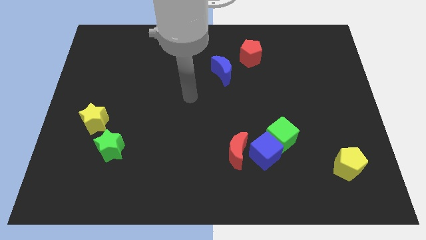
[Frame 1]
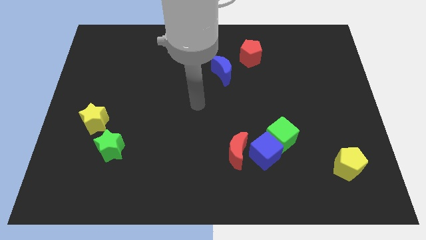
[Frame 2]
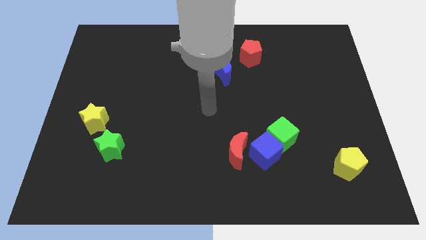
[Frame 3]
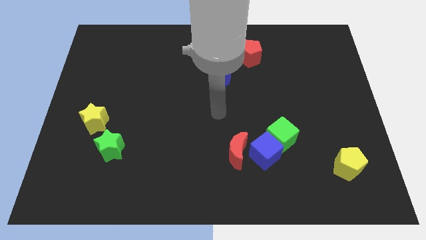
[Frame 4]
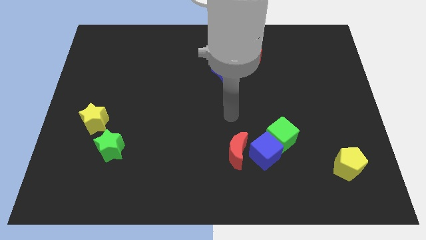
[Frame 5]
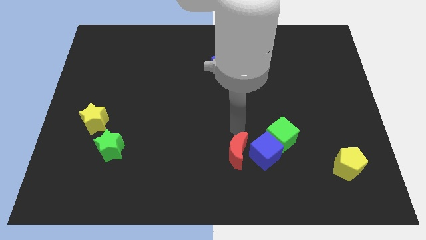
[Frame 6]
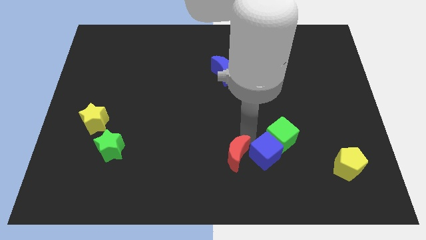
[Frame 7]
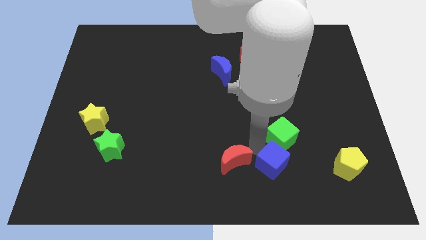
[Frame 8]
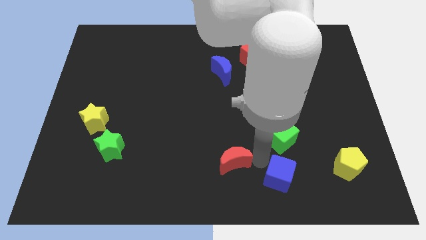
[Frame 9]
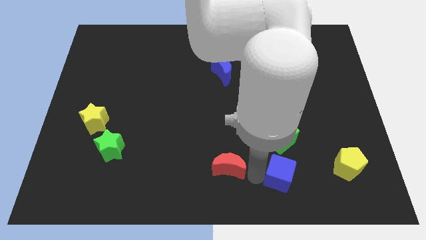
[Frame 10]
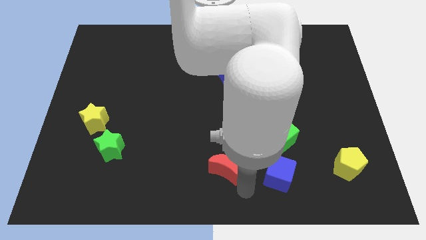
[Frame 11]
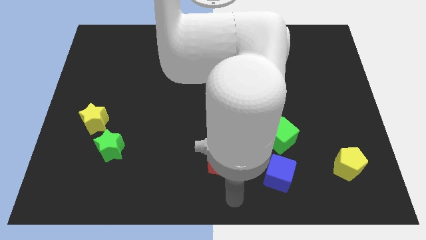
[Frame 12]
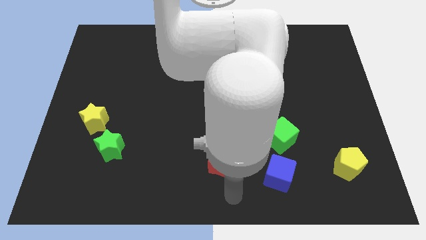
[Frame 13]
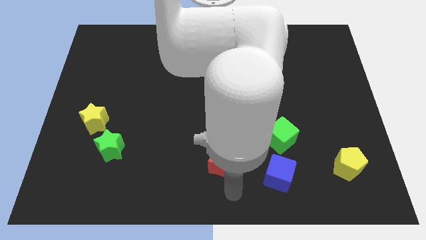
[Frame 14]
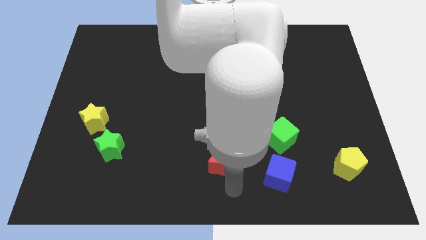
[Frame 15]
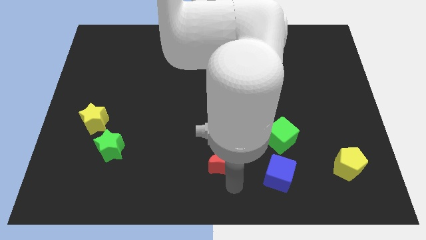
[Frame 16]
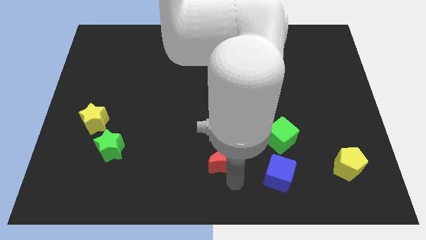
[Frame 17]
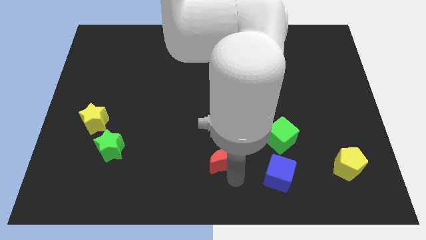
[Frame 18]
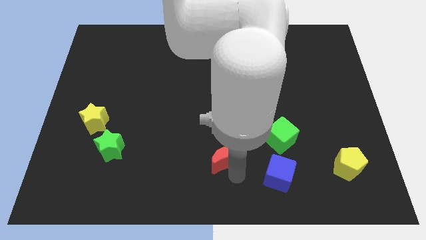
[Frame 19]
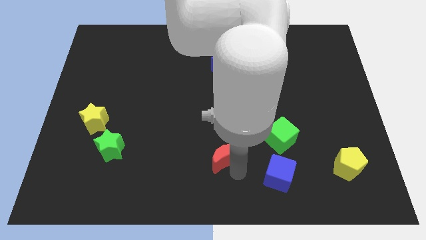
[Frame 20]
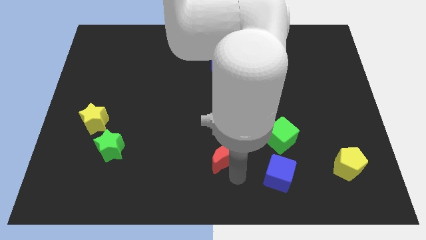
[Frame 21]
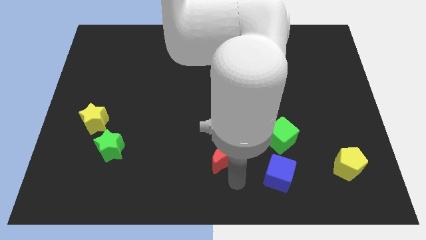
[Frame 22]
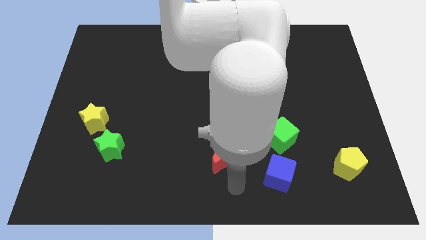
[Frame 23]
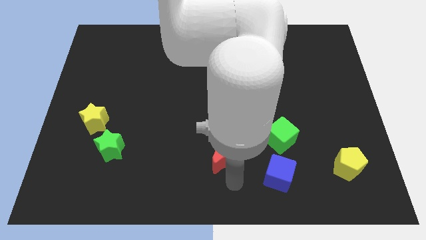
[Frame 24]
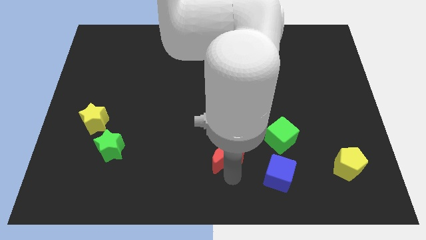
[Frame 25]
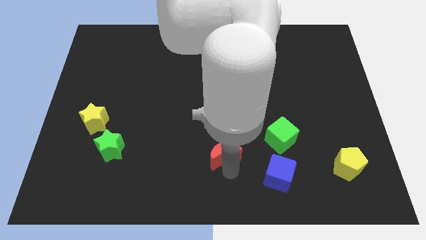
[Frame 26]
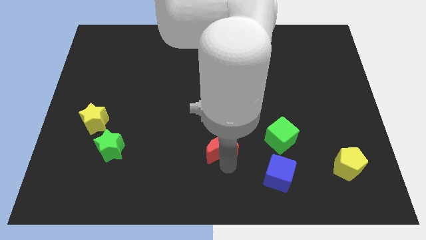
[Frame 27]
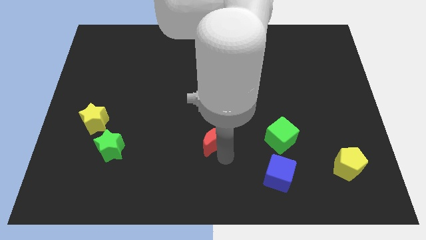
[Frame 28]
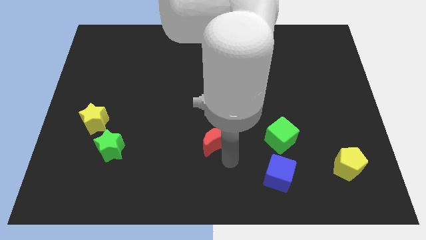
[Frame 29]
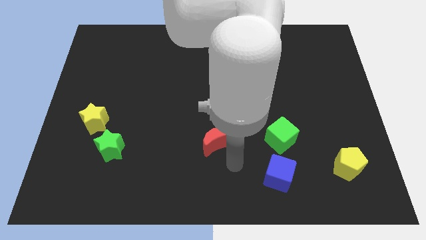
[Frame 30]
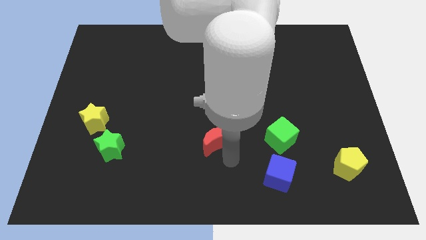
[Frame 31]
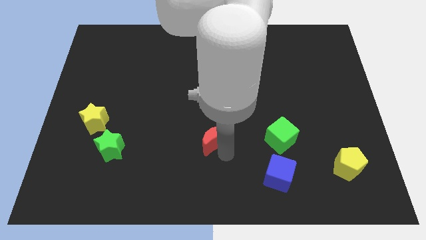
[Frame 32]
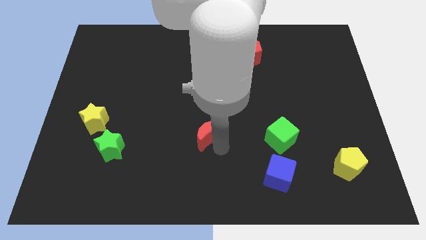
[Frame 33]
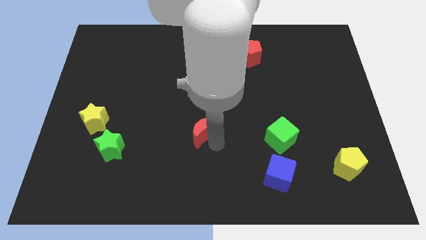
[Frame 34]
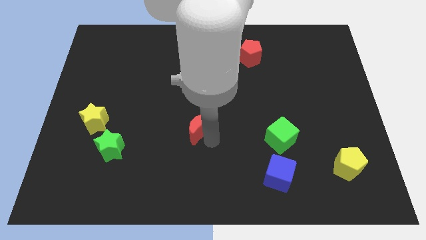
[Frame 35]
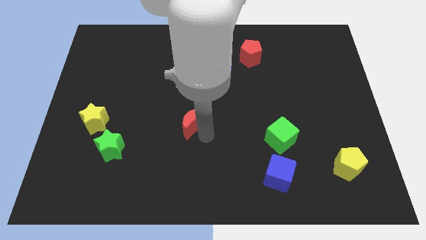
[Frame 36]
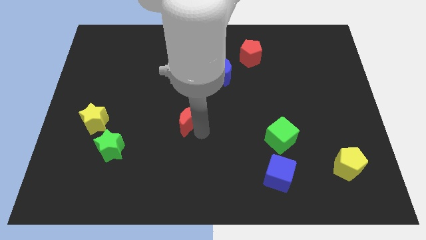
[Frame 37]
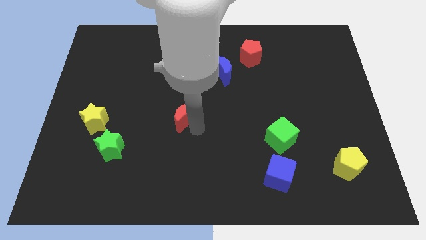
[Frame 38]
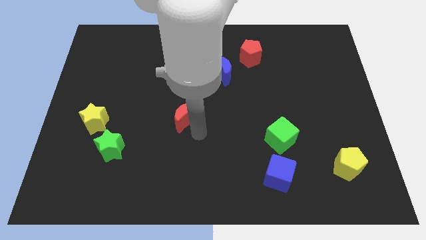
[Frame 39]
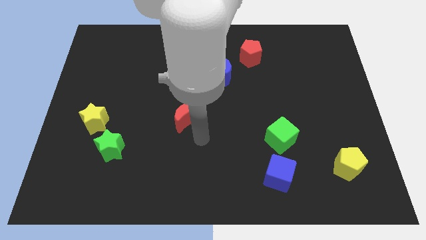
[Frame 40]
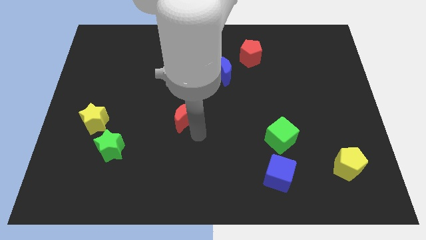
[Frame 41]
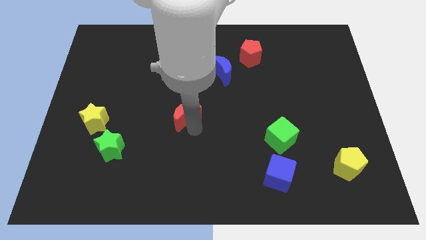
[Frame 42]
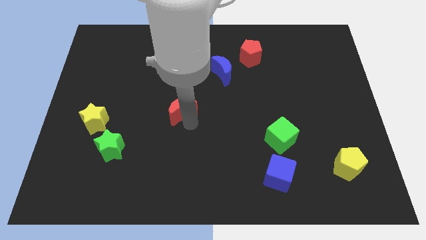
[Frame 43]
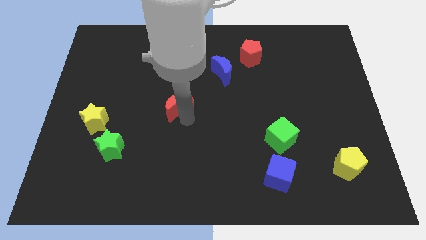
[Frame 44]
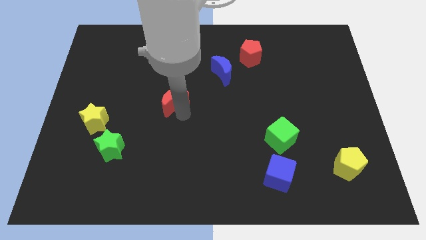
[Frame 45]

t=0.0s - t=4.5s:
push the red moon upwards and then to the left

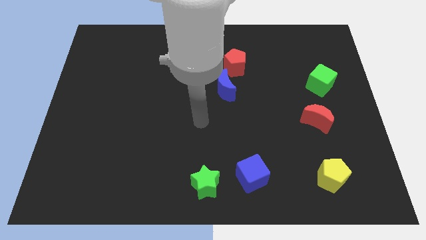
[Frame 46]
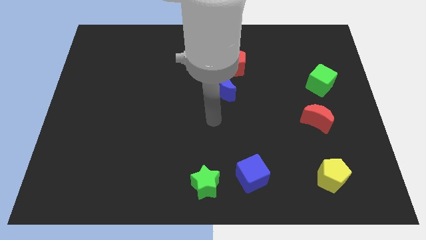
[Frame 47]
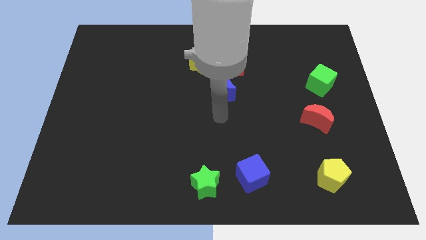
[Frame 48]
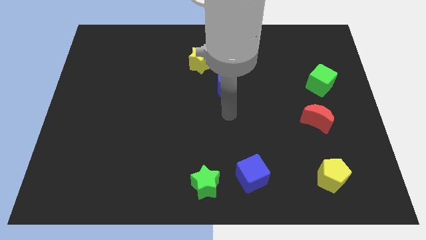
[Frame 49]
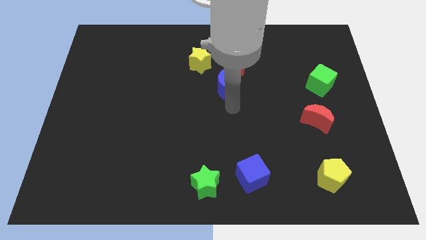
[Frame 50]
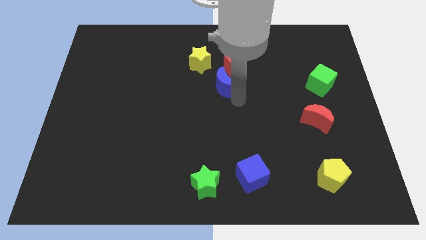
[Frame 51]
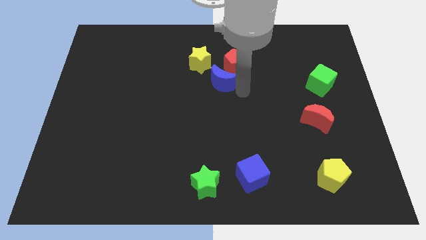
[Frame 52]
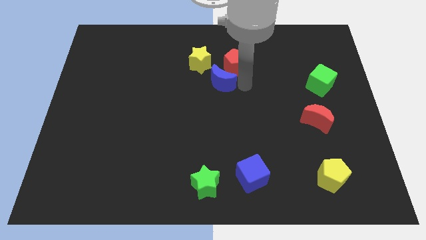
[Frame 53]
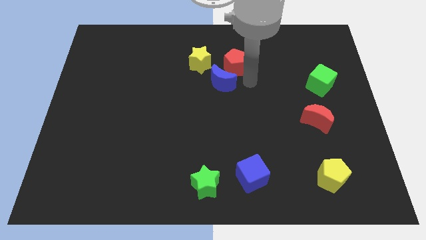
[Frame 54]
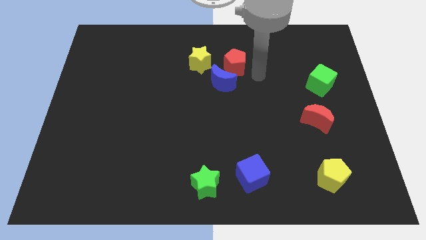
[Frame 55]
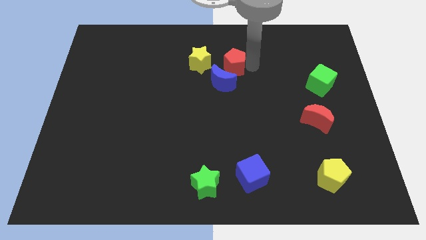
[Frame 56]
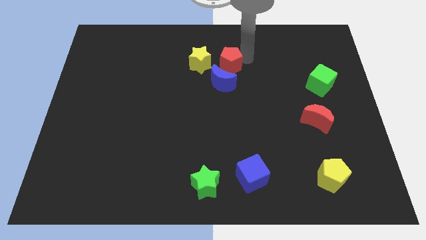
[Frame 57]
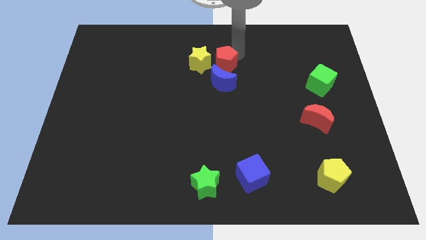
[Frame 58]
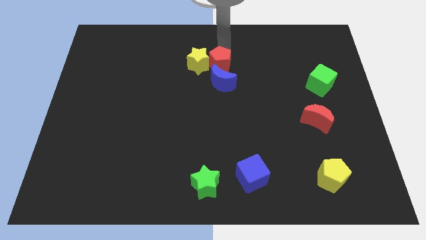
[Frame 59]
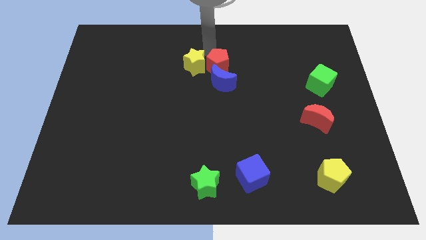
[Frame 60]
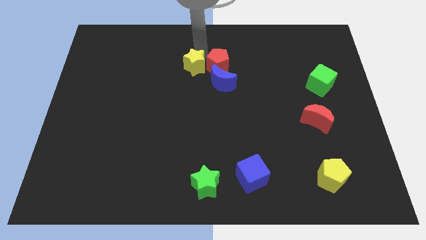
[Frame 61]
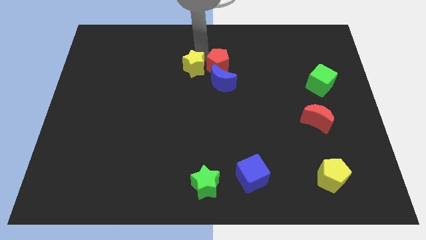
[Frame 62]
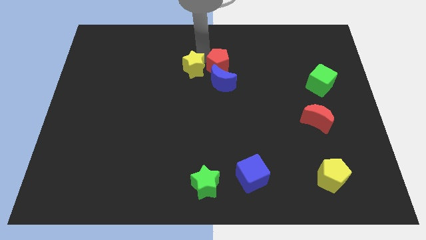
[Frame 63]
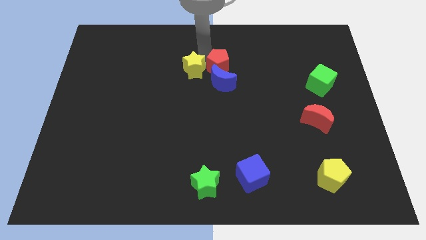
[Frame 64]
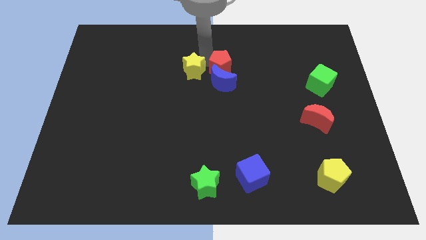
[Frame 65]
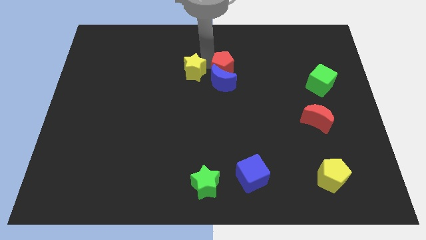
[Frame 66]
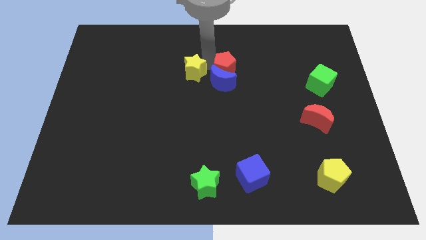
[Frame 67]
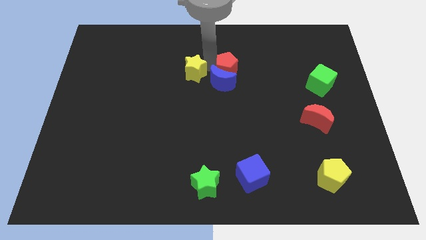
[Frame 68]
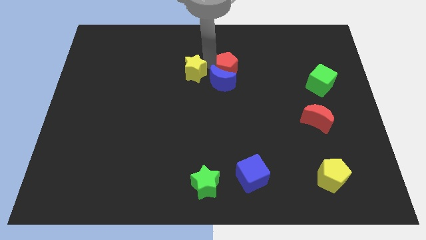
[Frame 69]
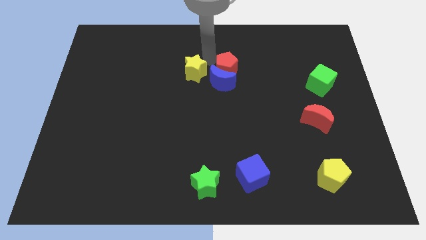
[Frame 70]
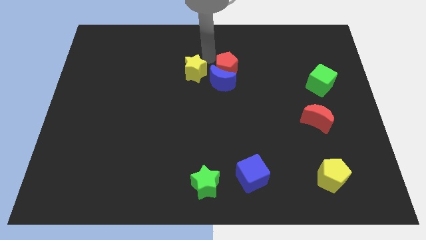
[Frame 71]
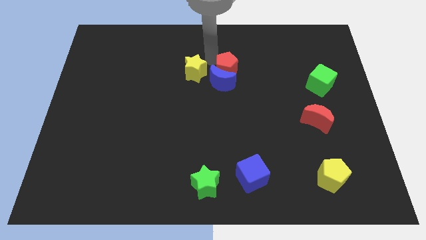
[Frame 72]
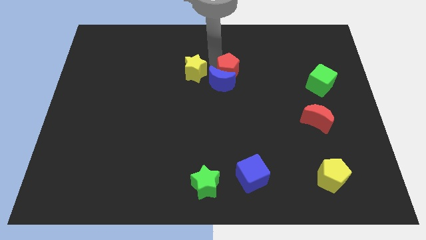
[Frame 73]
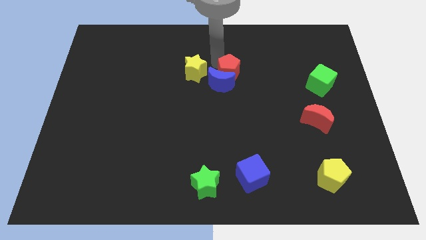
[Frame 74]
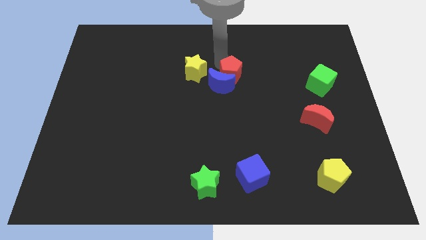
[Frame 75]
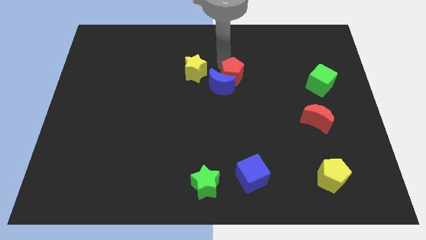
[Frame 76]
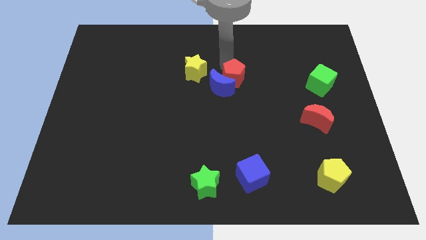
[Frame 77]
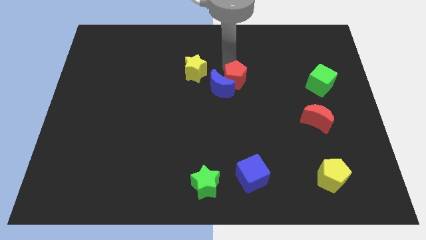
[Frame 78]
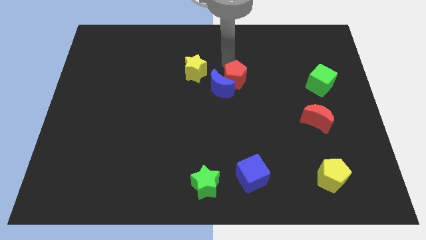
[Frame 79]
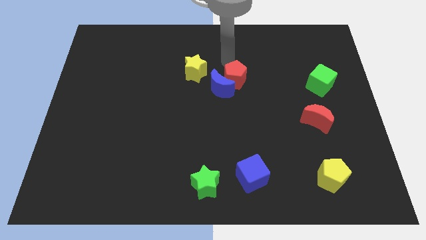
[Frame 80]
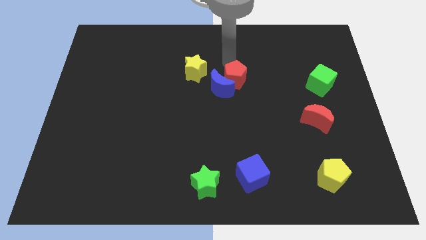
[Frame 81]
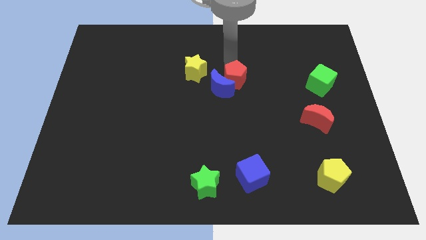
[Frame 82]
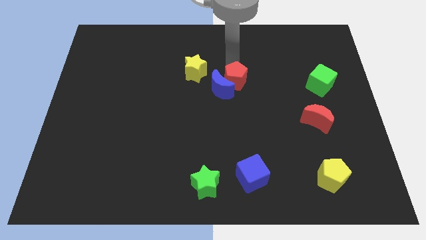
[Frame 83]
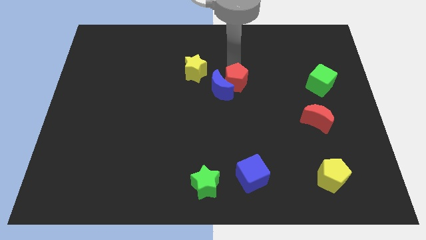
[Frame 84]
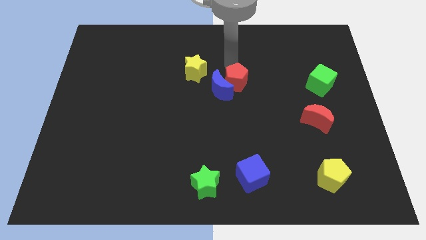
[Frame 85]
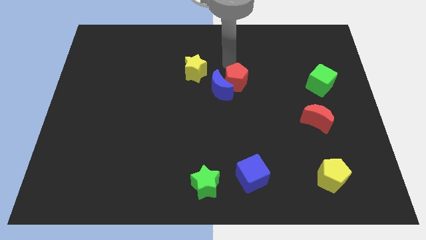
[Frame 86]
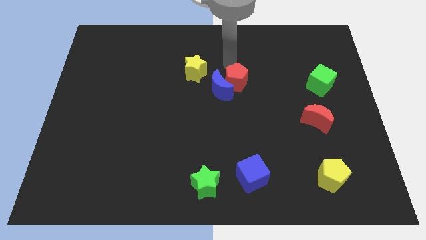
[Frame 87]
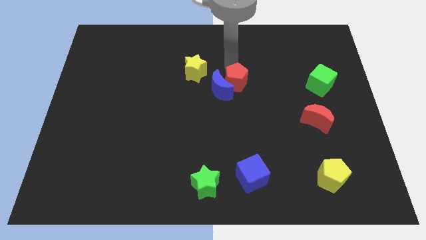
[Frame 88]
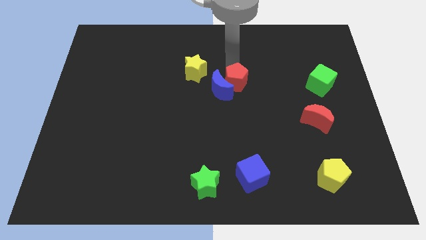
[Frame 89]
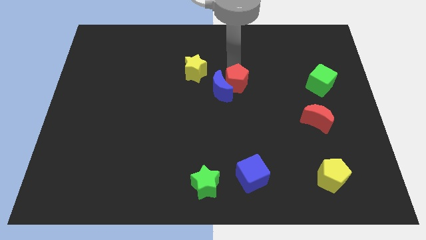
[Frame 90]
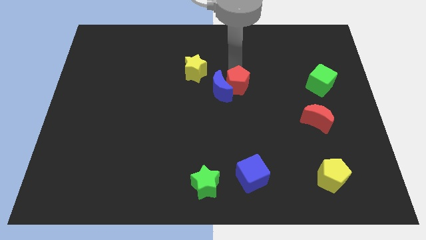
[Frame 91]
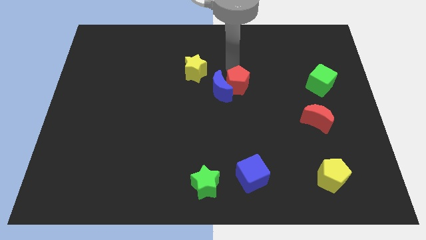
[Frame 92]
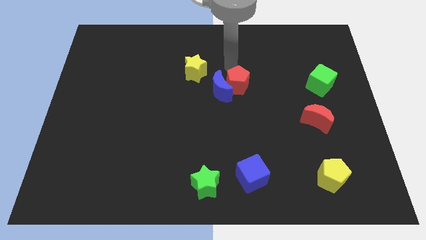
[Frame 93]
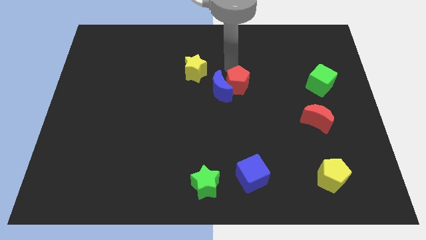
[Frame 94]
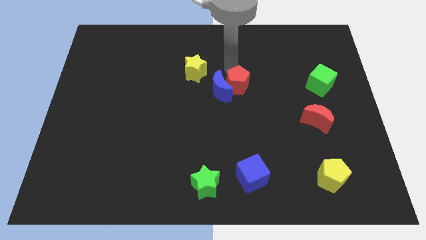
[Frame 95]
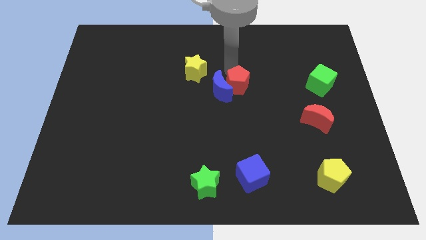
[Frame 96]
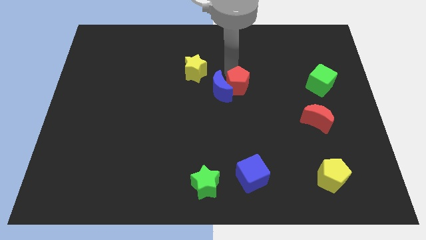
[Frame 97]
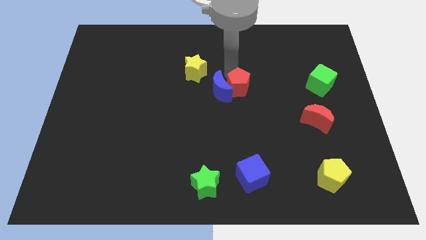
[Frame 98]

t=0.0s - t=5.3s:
slightly push the red pentagon down
